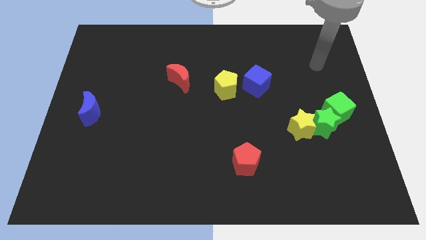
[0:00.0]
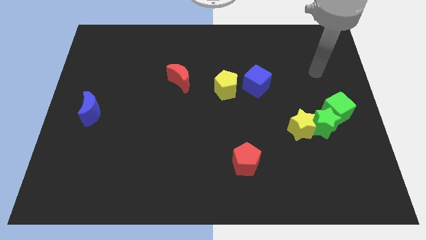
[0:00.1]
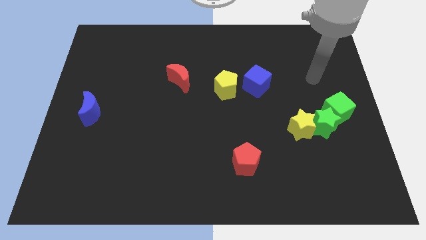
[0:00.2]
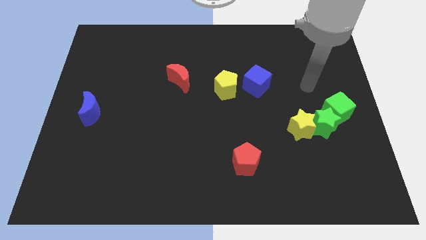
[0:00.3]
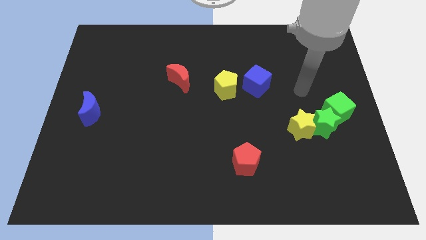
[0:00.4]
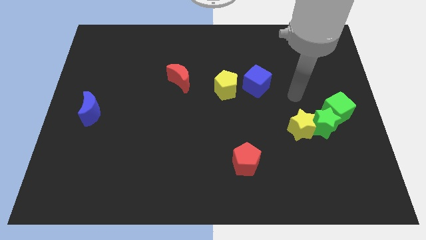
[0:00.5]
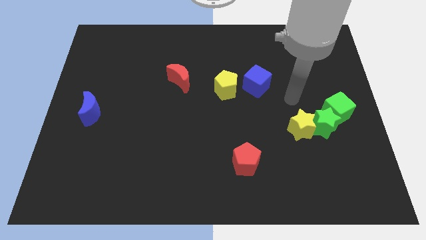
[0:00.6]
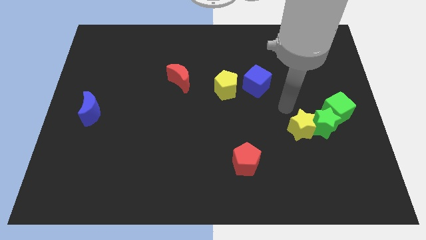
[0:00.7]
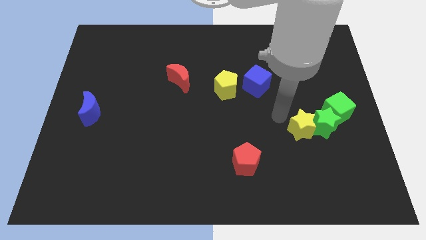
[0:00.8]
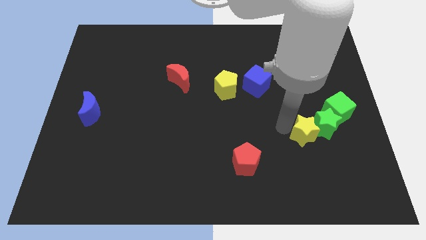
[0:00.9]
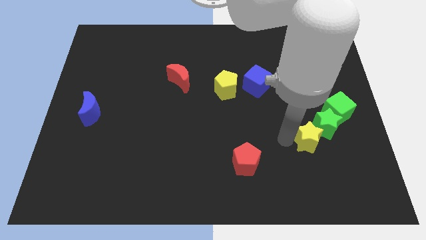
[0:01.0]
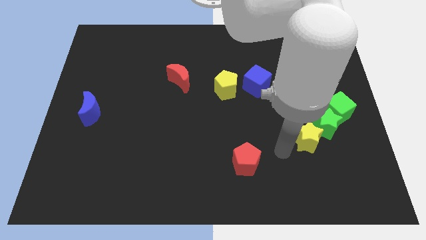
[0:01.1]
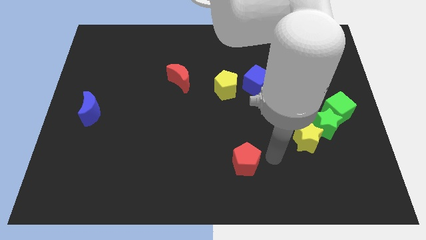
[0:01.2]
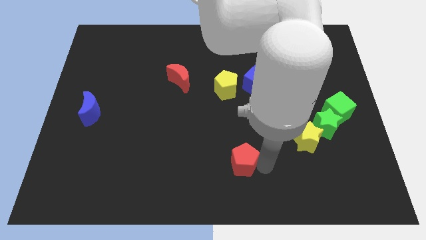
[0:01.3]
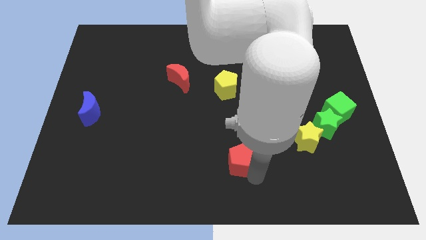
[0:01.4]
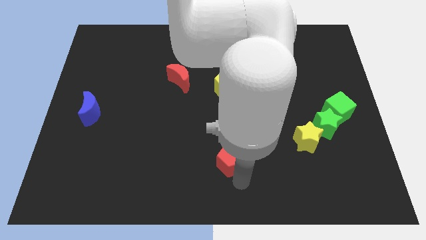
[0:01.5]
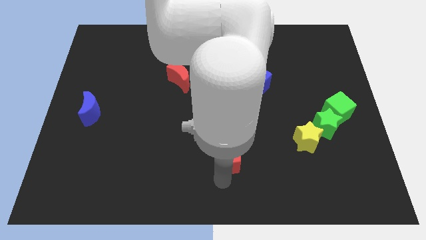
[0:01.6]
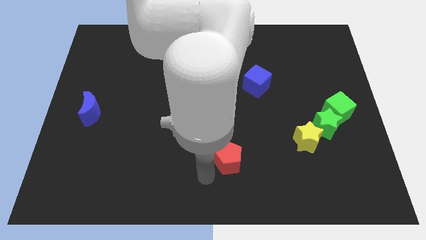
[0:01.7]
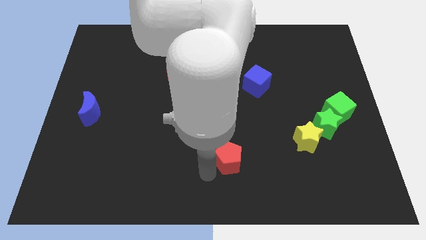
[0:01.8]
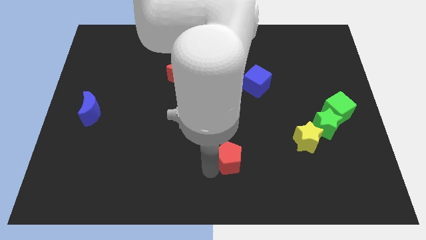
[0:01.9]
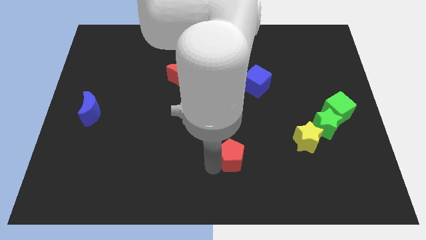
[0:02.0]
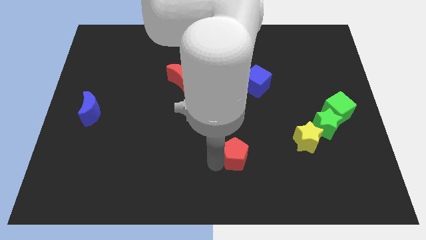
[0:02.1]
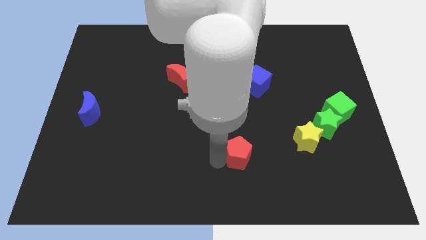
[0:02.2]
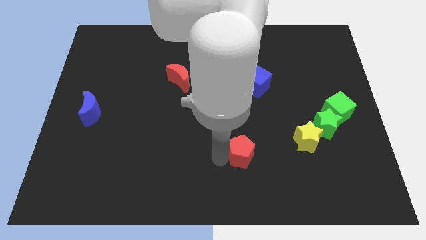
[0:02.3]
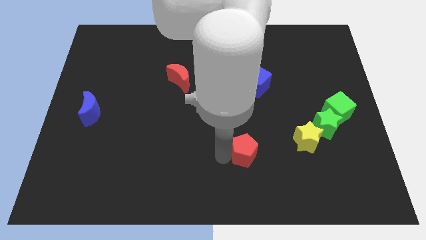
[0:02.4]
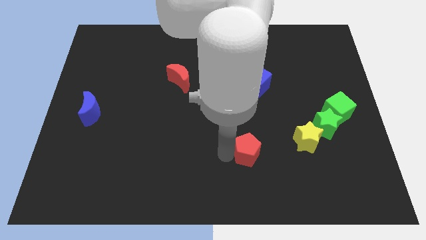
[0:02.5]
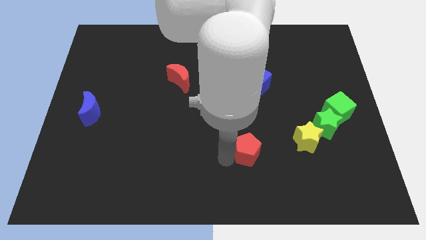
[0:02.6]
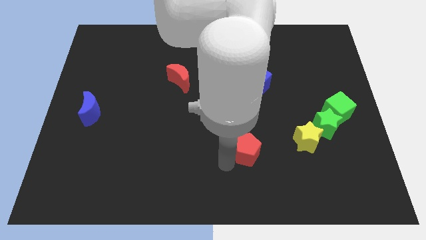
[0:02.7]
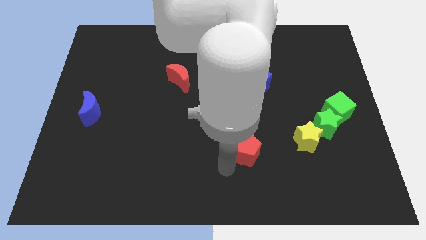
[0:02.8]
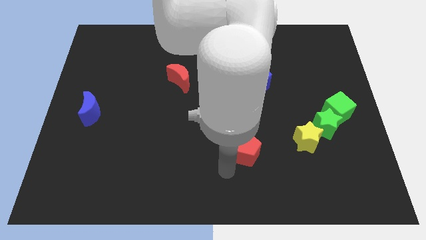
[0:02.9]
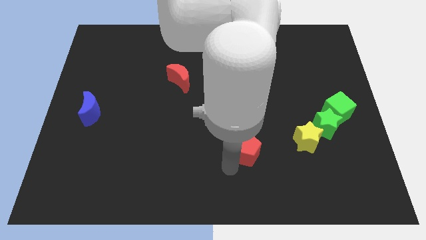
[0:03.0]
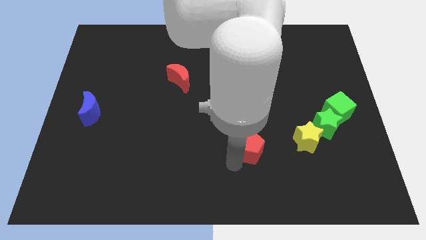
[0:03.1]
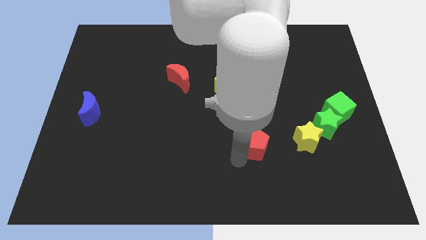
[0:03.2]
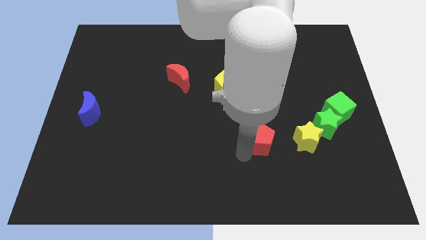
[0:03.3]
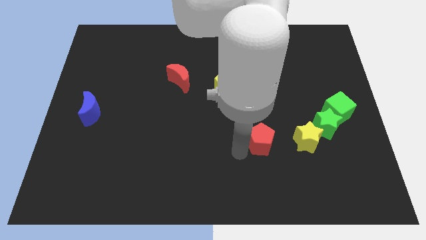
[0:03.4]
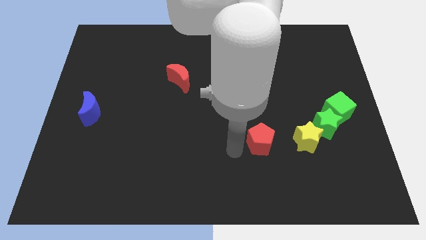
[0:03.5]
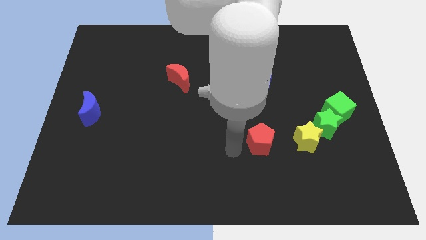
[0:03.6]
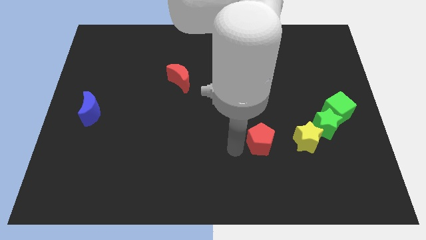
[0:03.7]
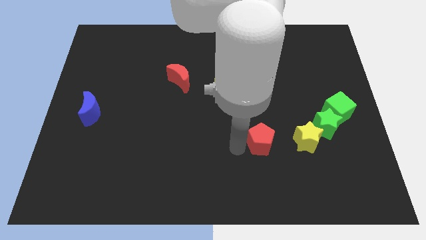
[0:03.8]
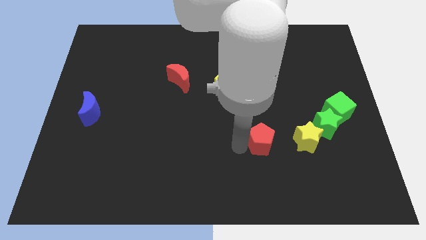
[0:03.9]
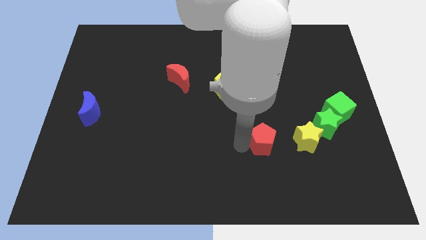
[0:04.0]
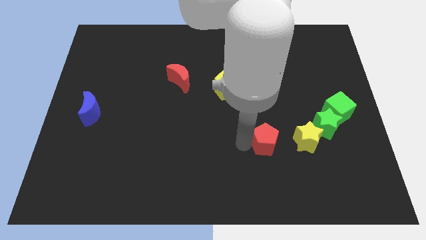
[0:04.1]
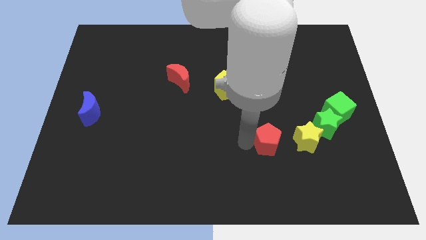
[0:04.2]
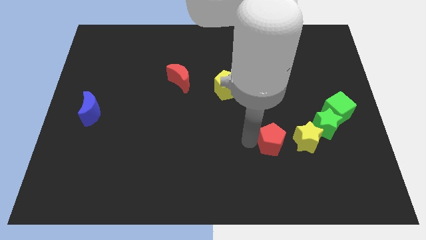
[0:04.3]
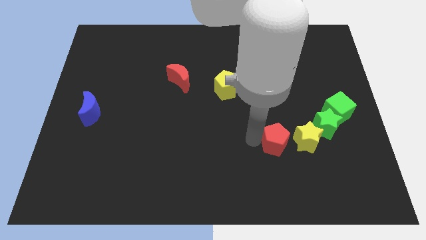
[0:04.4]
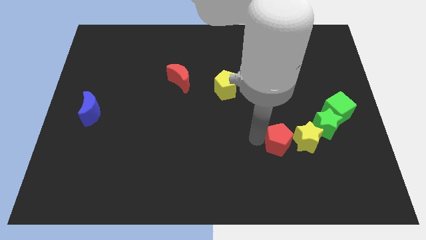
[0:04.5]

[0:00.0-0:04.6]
slide the red pentagon to the yellow star

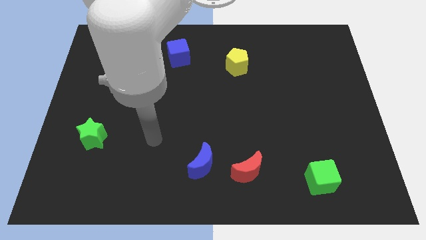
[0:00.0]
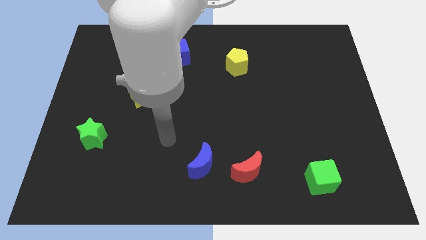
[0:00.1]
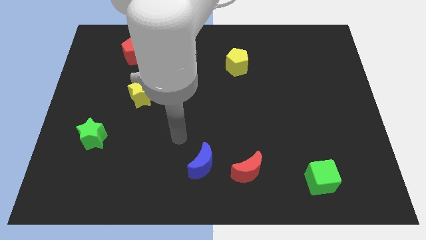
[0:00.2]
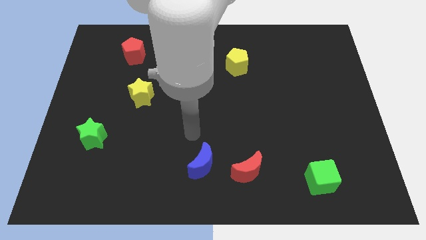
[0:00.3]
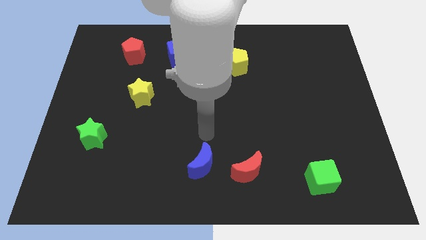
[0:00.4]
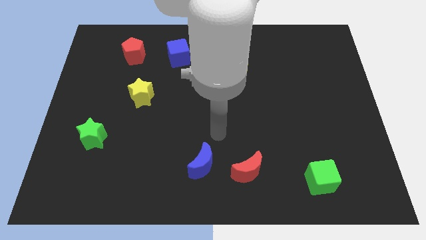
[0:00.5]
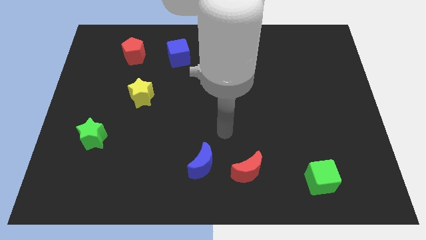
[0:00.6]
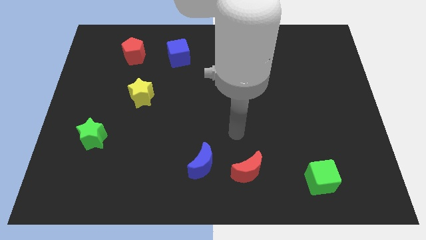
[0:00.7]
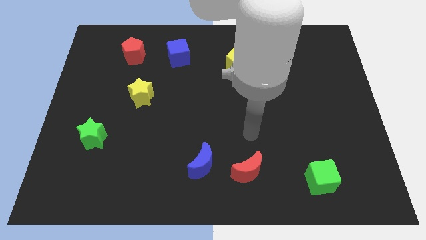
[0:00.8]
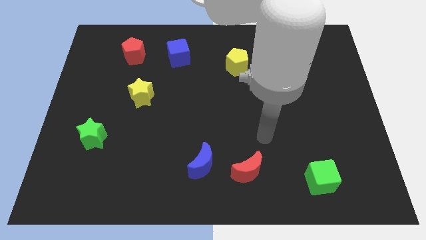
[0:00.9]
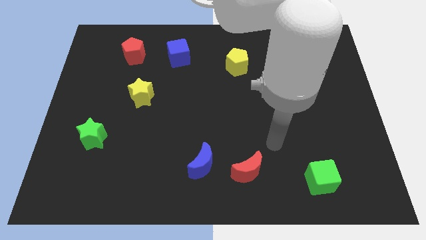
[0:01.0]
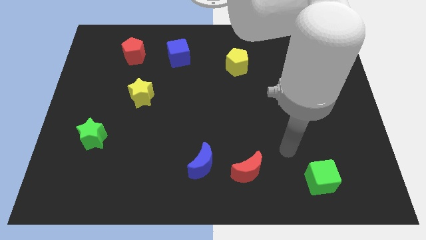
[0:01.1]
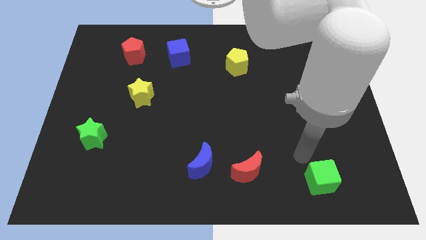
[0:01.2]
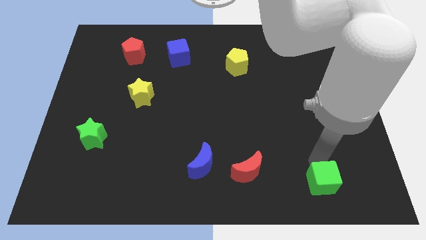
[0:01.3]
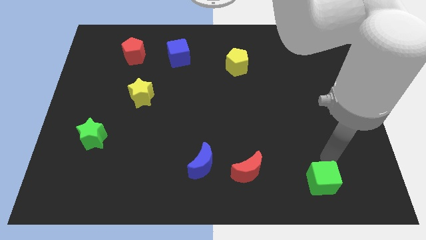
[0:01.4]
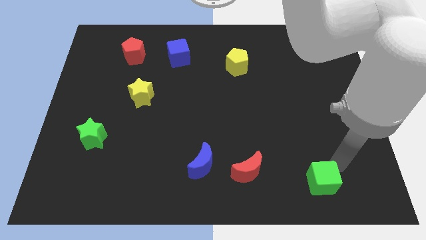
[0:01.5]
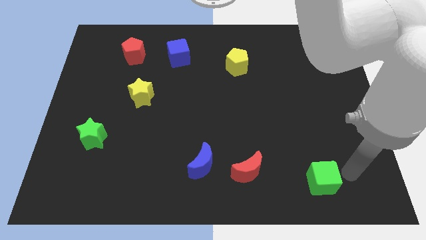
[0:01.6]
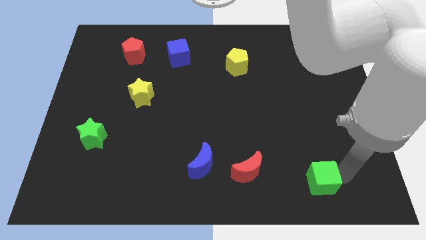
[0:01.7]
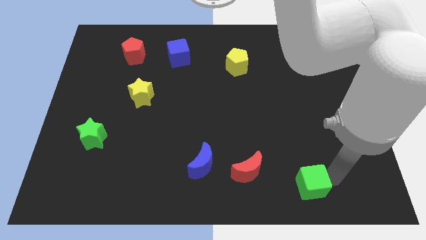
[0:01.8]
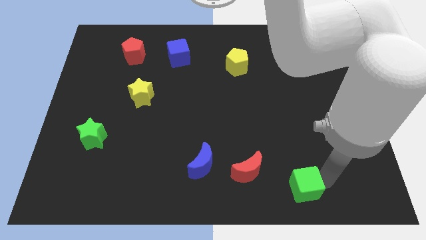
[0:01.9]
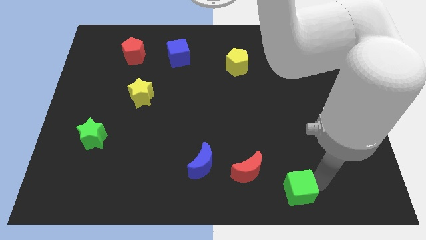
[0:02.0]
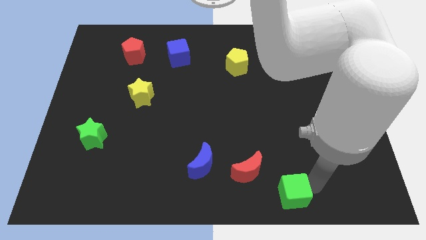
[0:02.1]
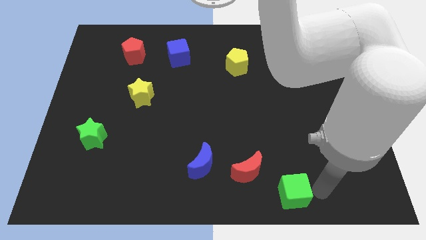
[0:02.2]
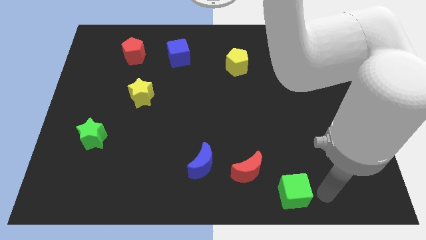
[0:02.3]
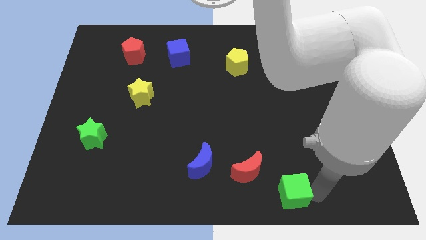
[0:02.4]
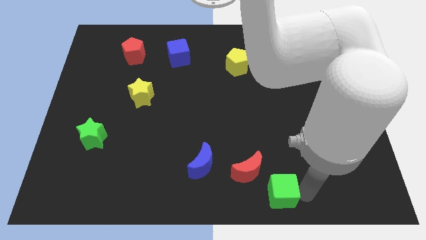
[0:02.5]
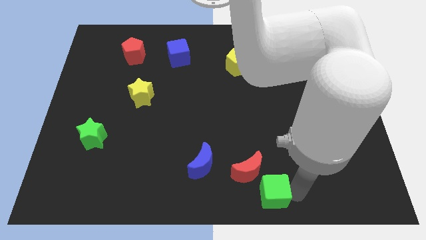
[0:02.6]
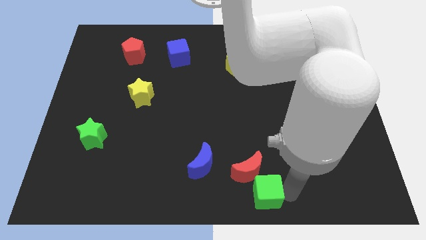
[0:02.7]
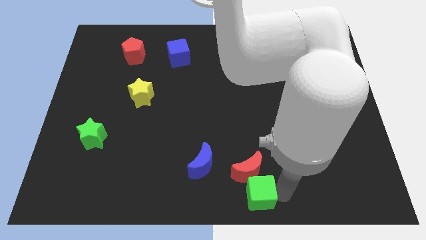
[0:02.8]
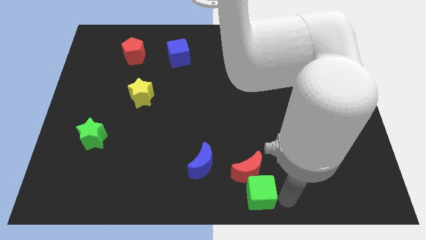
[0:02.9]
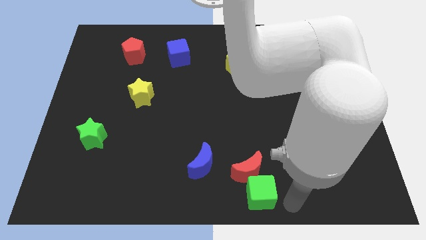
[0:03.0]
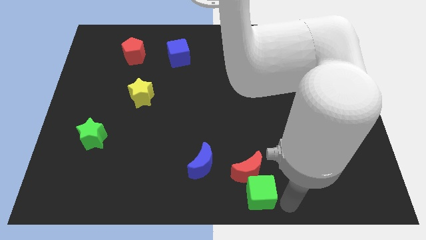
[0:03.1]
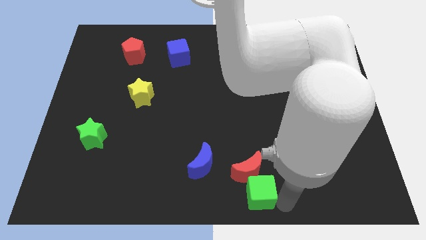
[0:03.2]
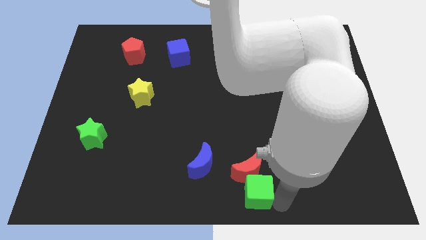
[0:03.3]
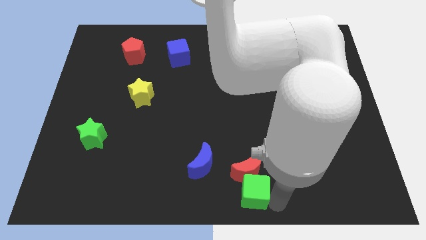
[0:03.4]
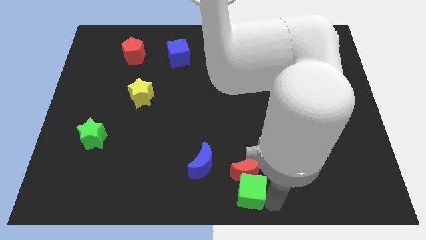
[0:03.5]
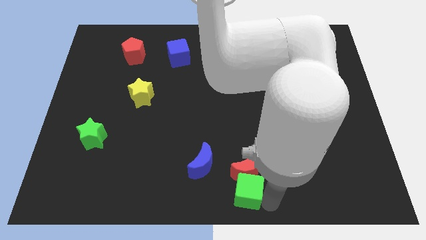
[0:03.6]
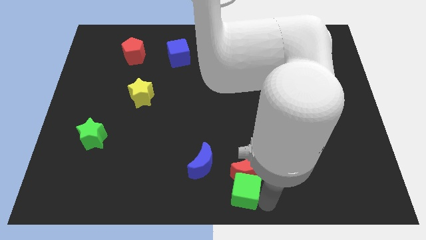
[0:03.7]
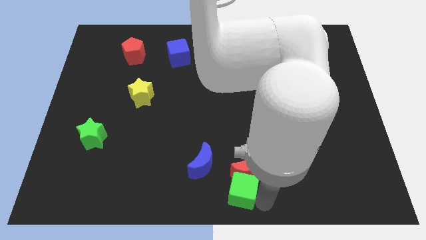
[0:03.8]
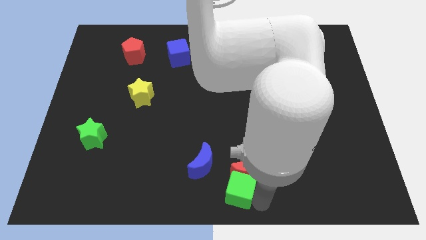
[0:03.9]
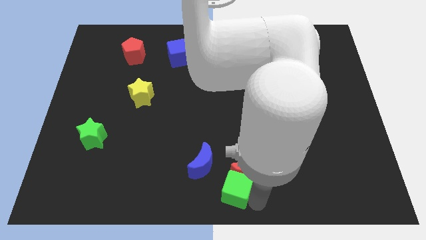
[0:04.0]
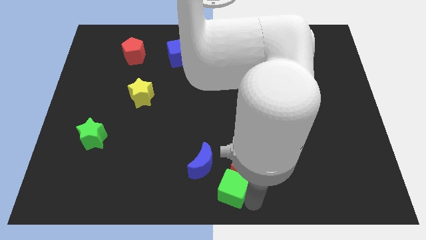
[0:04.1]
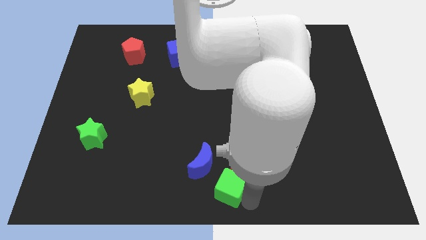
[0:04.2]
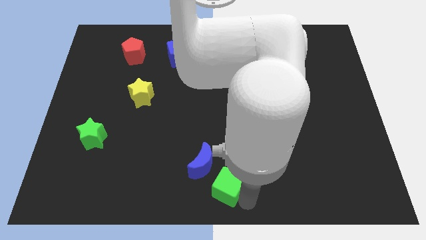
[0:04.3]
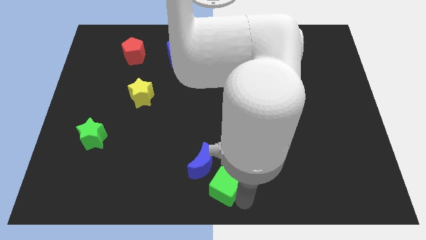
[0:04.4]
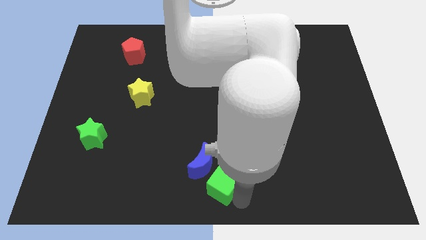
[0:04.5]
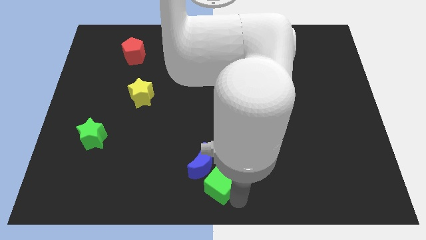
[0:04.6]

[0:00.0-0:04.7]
put the green cube next to the blue moon
